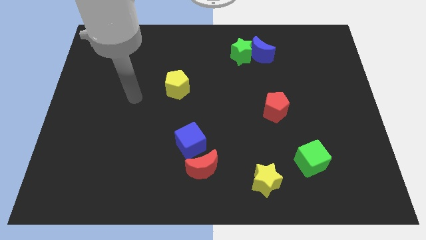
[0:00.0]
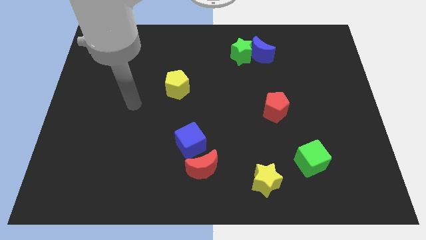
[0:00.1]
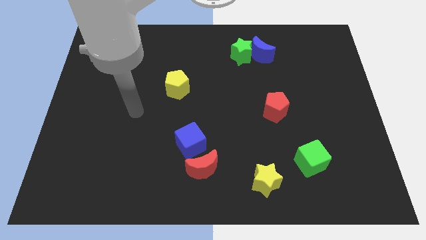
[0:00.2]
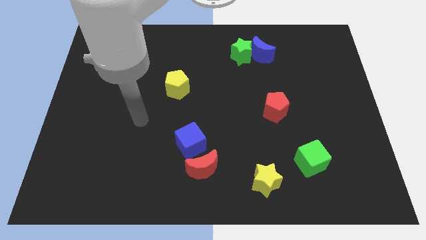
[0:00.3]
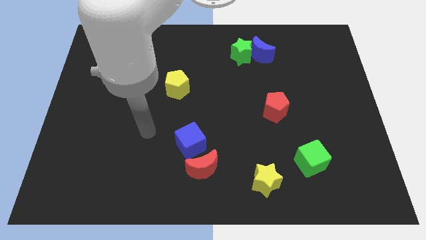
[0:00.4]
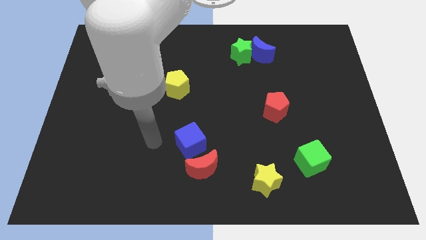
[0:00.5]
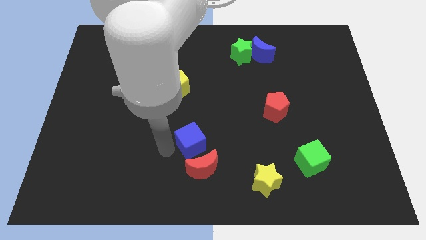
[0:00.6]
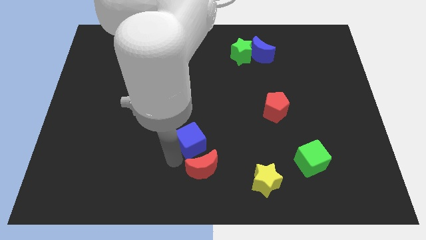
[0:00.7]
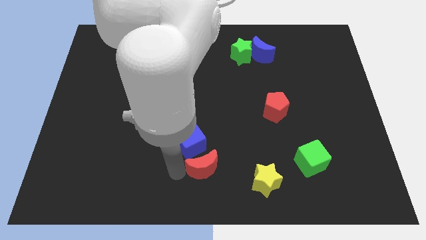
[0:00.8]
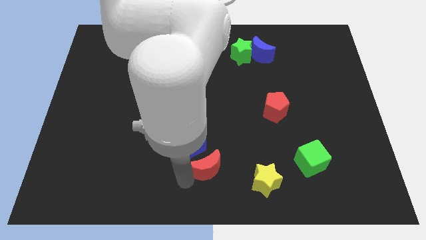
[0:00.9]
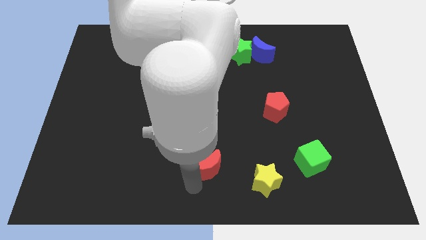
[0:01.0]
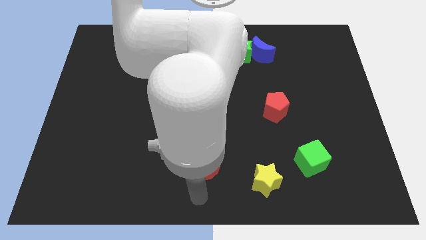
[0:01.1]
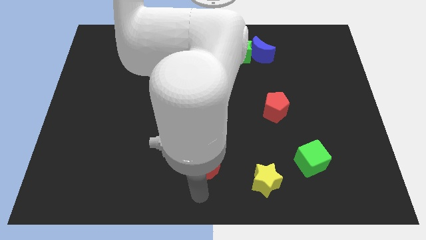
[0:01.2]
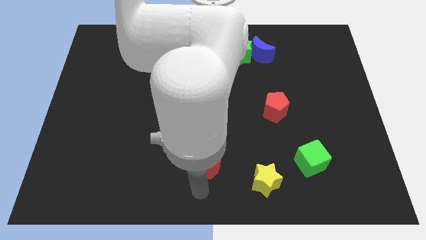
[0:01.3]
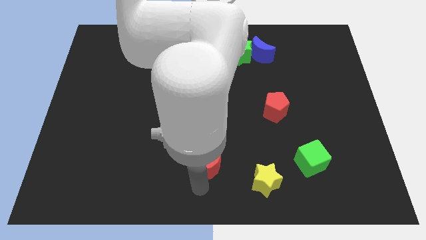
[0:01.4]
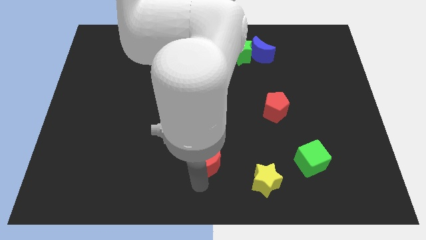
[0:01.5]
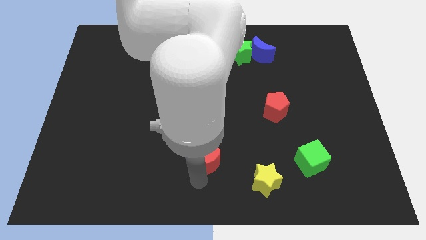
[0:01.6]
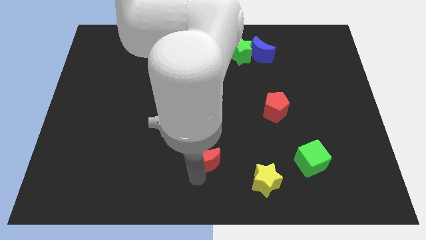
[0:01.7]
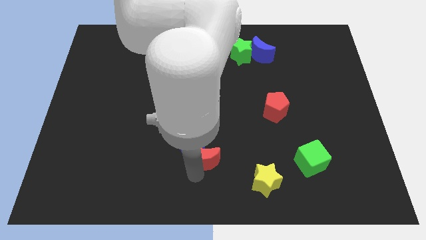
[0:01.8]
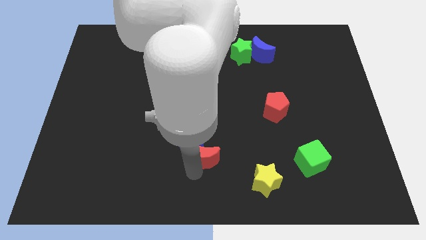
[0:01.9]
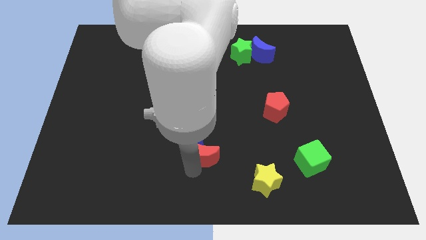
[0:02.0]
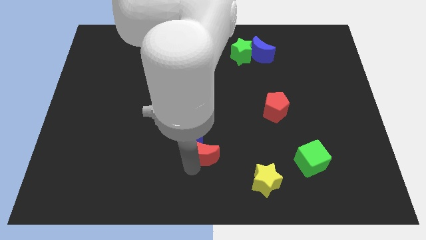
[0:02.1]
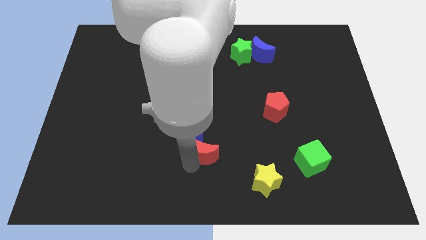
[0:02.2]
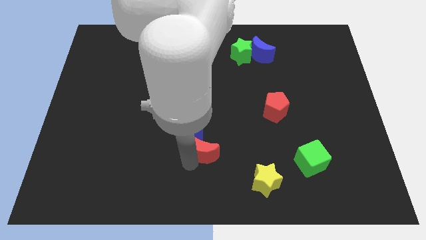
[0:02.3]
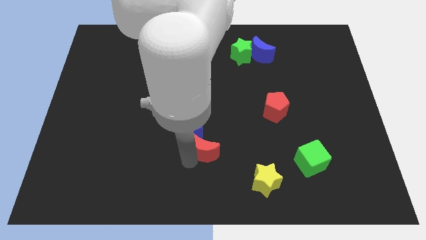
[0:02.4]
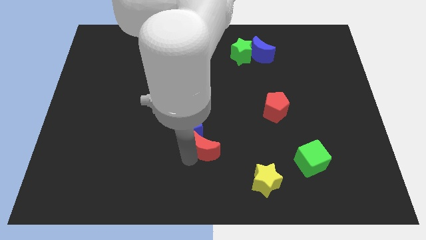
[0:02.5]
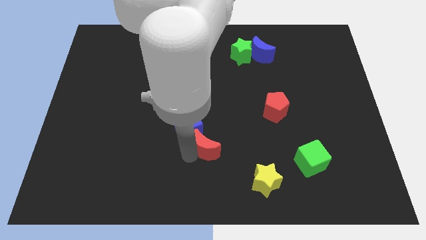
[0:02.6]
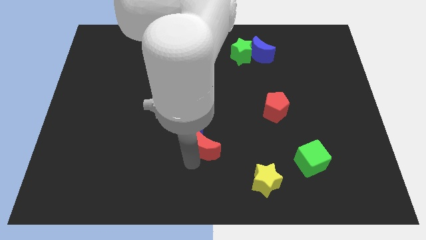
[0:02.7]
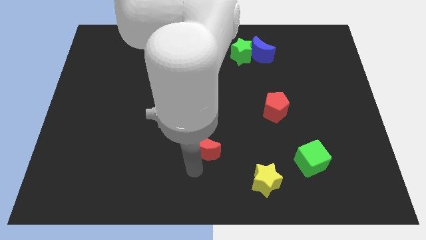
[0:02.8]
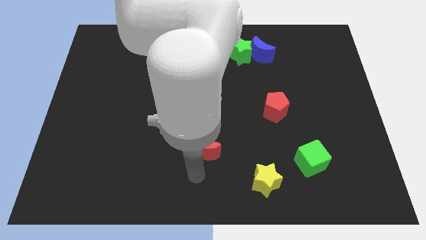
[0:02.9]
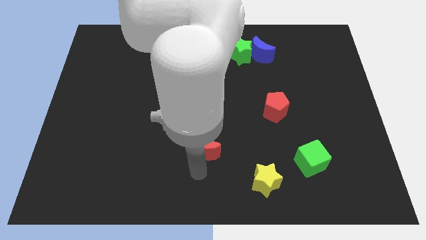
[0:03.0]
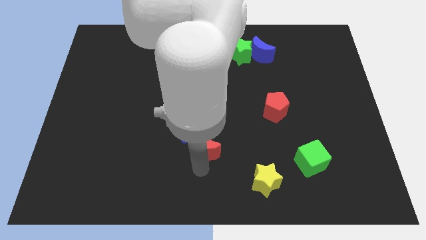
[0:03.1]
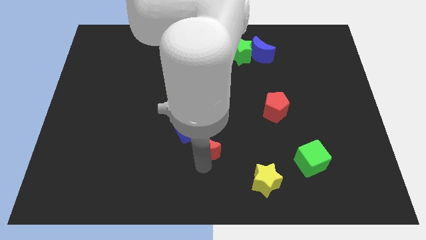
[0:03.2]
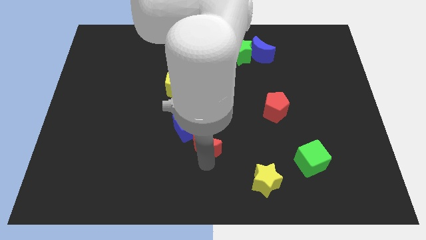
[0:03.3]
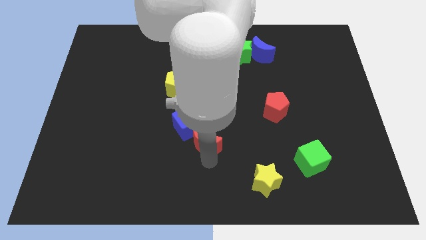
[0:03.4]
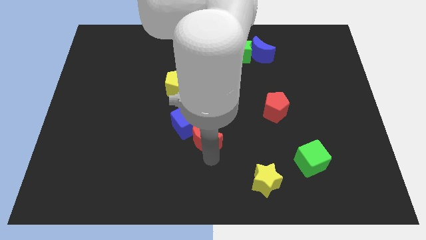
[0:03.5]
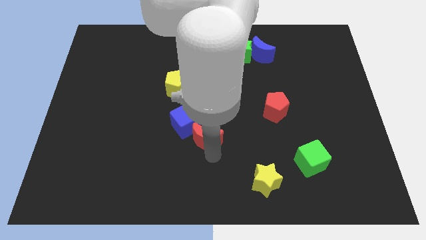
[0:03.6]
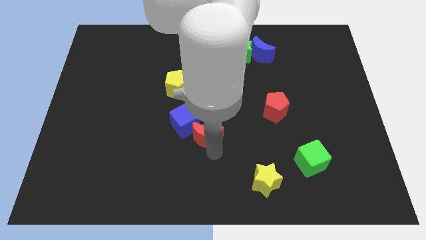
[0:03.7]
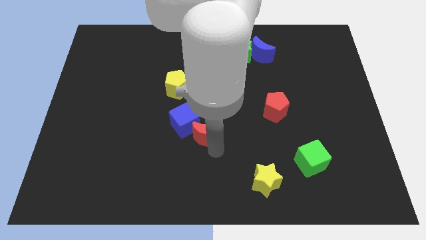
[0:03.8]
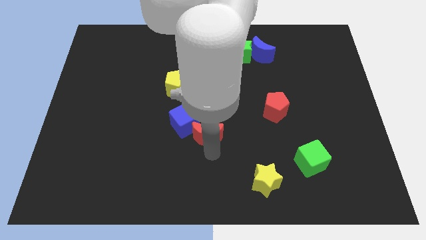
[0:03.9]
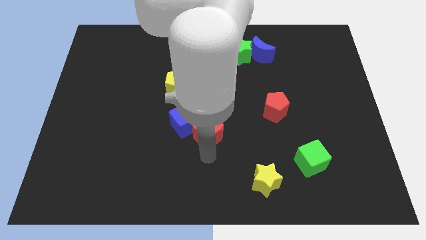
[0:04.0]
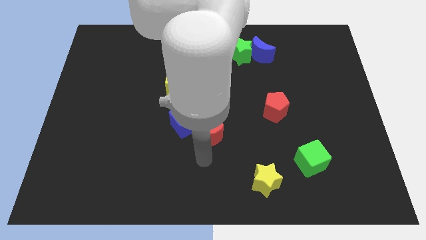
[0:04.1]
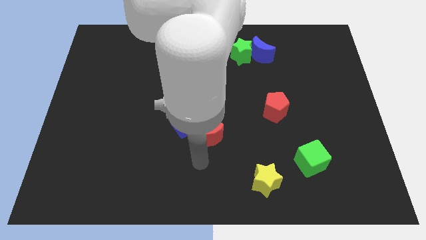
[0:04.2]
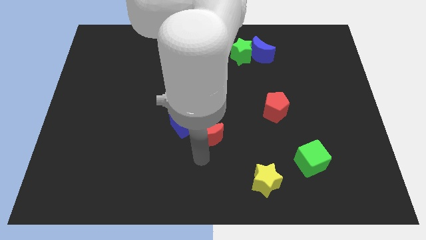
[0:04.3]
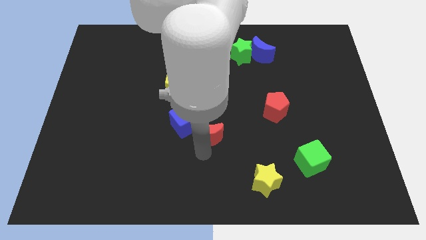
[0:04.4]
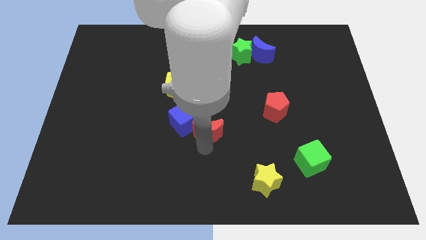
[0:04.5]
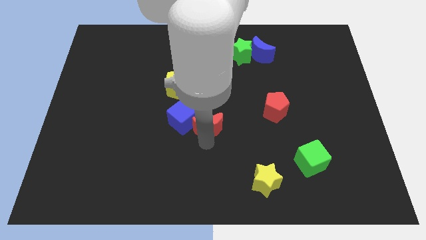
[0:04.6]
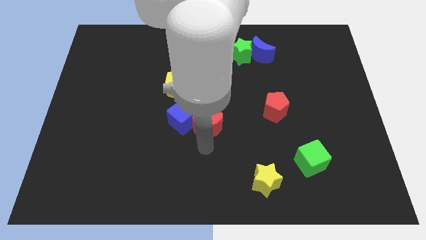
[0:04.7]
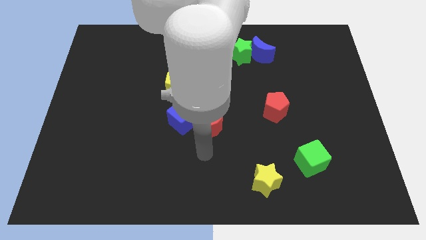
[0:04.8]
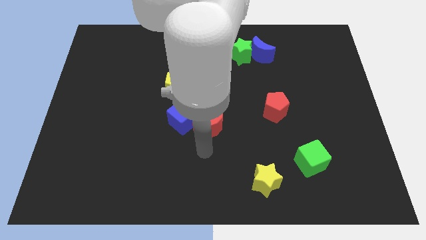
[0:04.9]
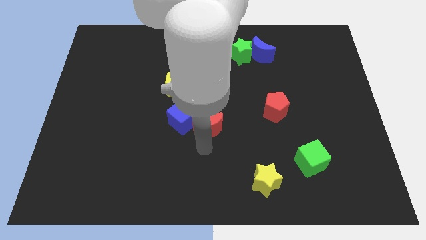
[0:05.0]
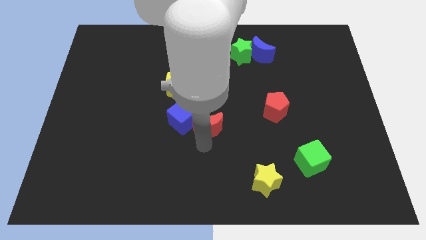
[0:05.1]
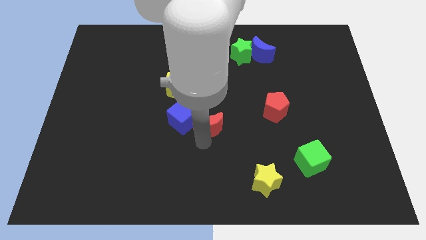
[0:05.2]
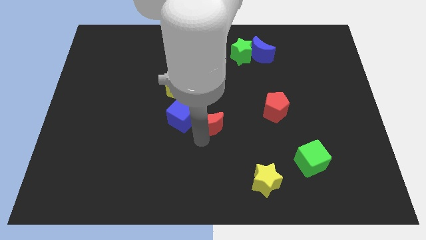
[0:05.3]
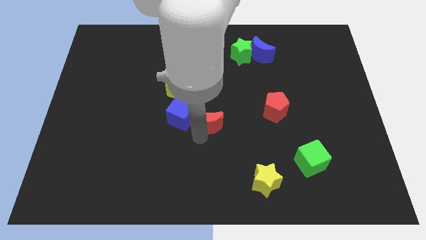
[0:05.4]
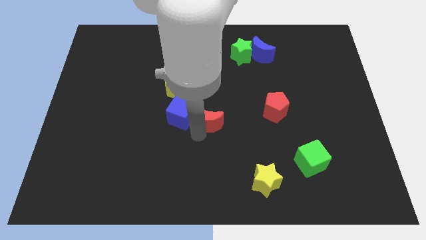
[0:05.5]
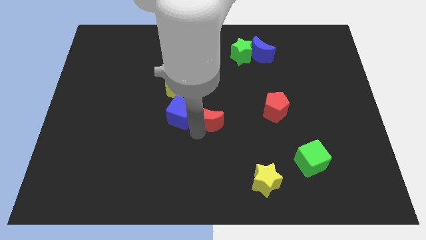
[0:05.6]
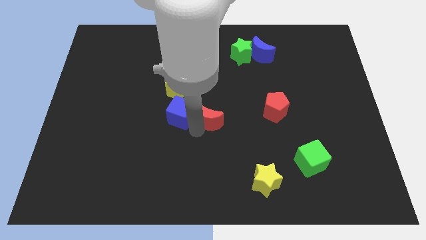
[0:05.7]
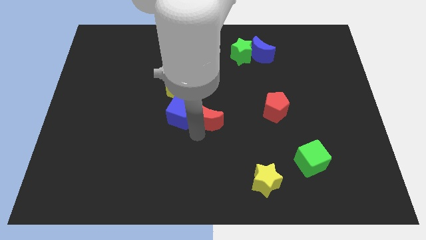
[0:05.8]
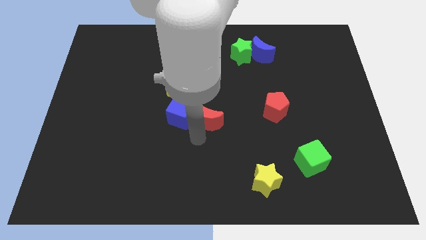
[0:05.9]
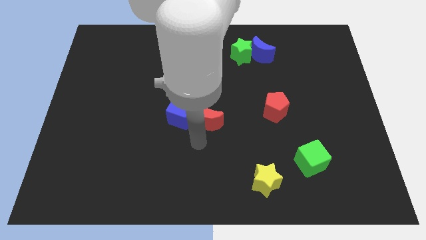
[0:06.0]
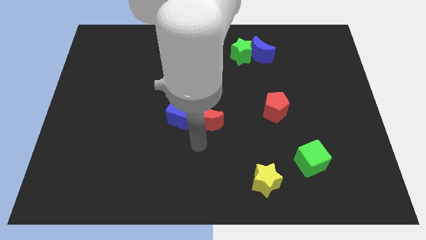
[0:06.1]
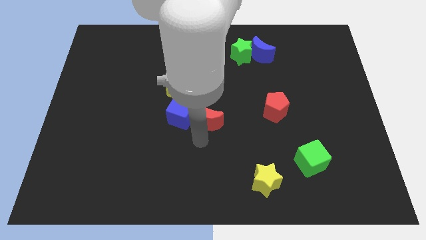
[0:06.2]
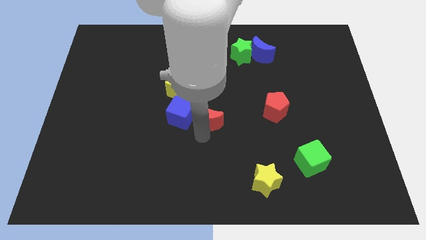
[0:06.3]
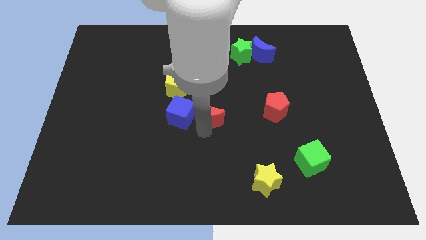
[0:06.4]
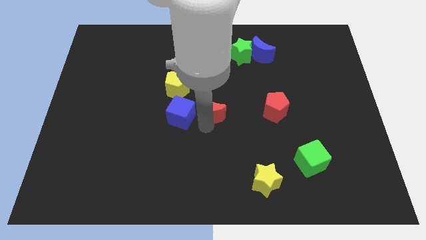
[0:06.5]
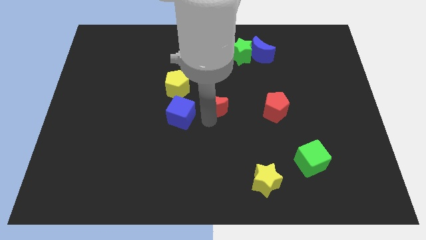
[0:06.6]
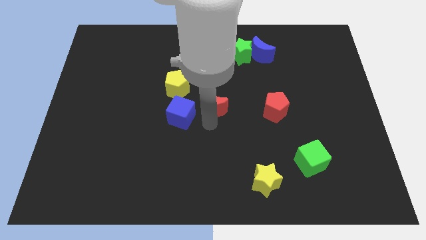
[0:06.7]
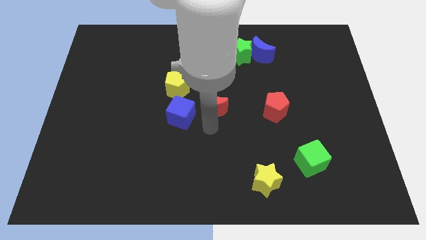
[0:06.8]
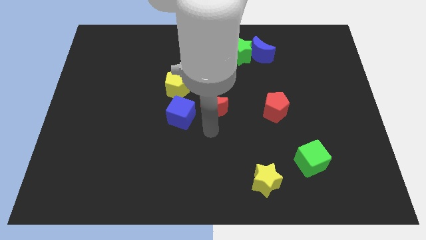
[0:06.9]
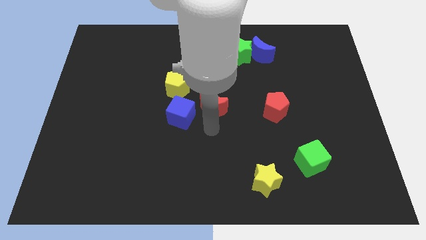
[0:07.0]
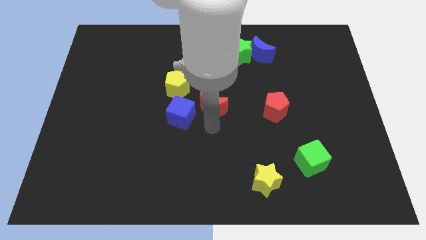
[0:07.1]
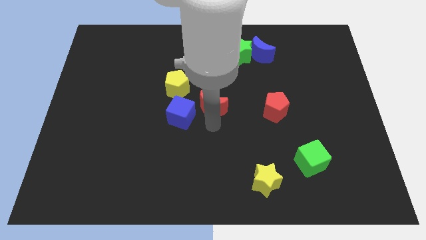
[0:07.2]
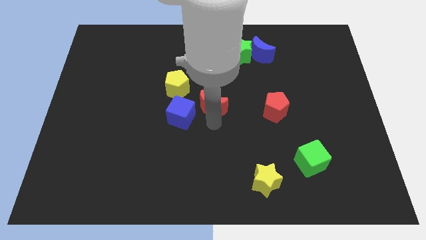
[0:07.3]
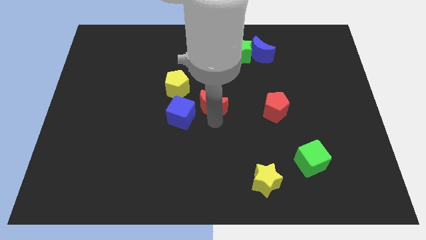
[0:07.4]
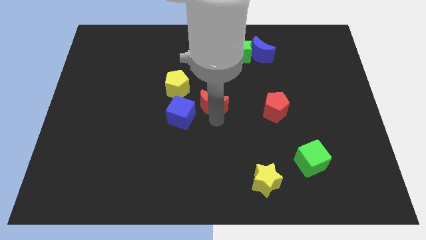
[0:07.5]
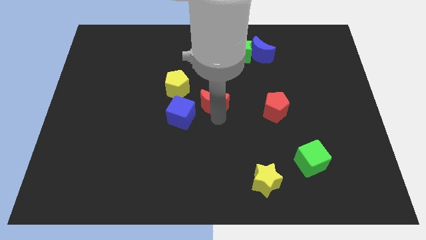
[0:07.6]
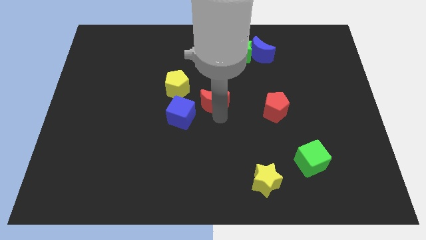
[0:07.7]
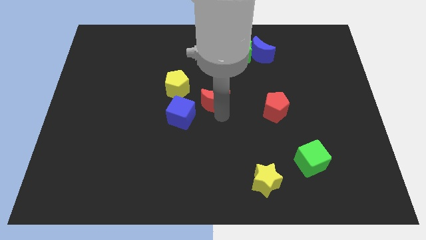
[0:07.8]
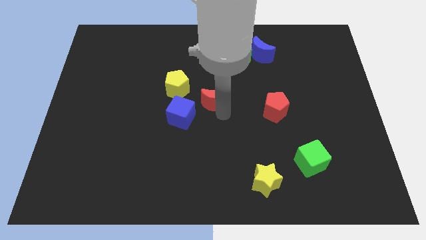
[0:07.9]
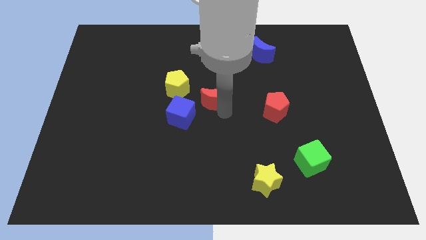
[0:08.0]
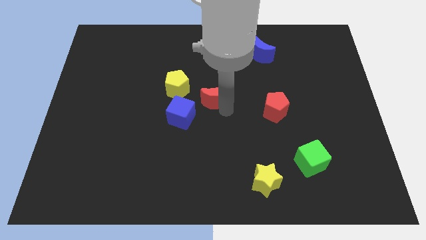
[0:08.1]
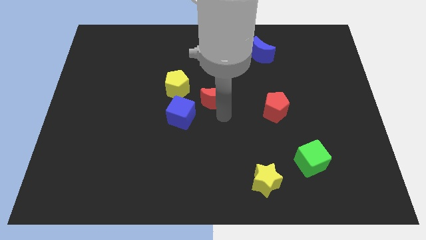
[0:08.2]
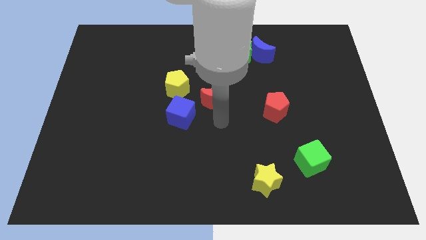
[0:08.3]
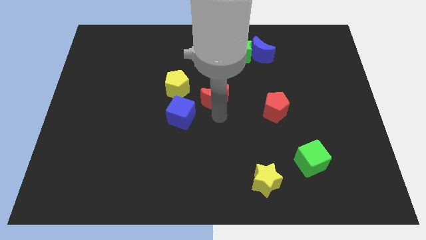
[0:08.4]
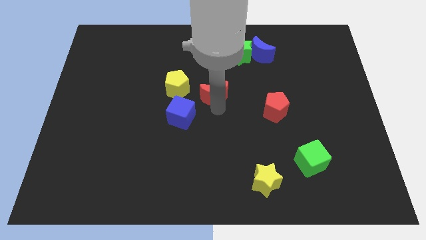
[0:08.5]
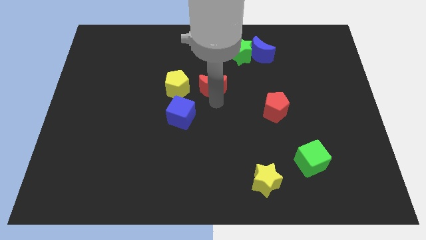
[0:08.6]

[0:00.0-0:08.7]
slide the red moon upwards
